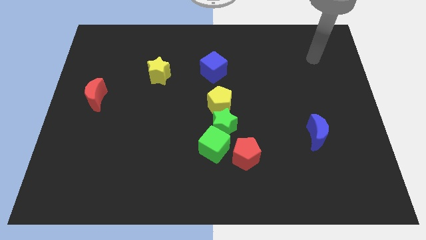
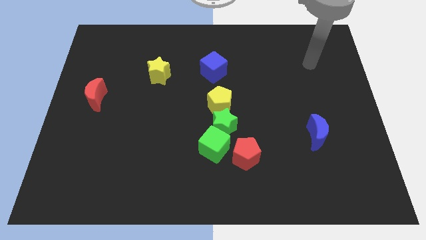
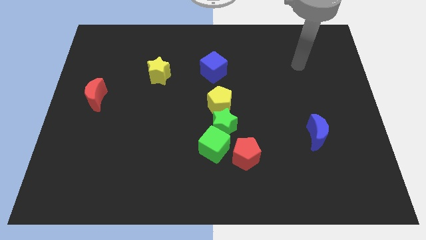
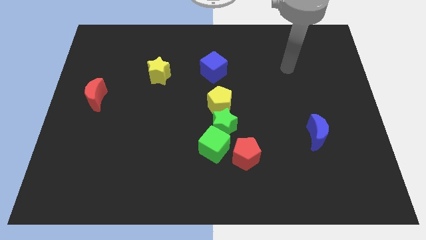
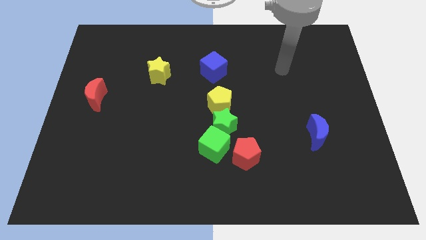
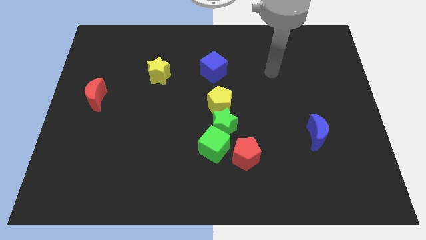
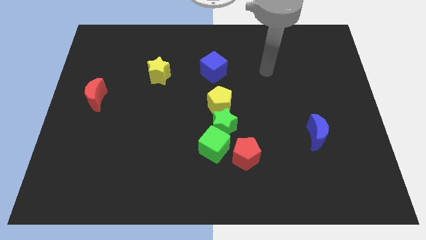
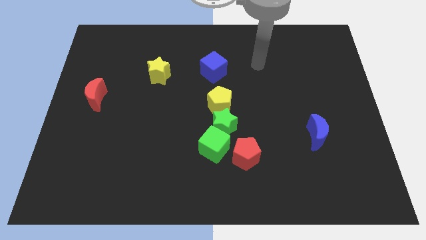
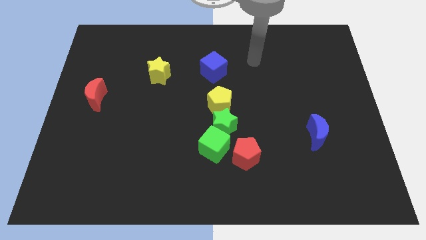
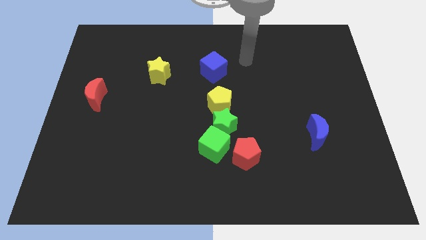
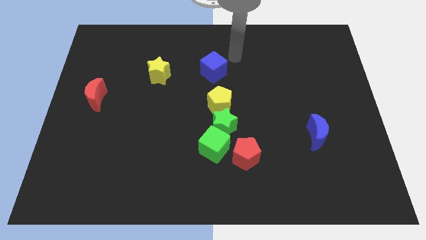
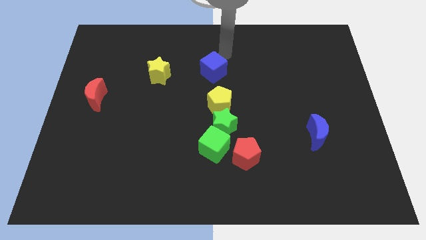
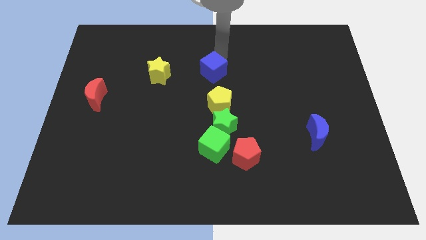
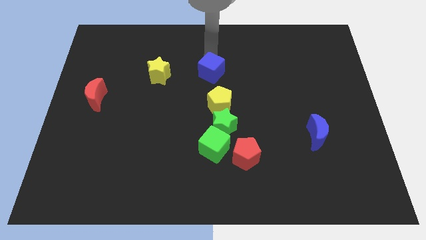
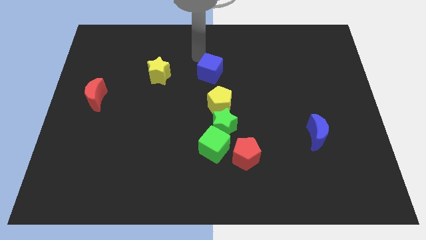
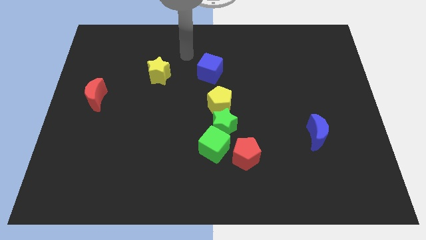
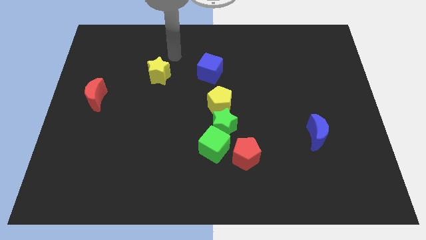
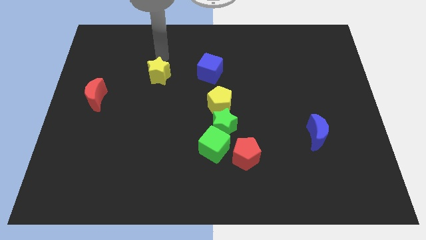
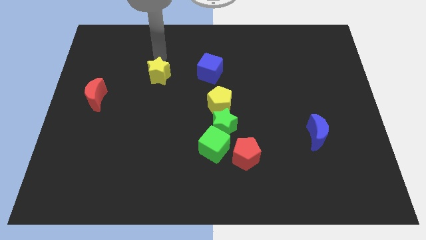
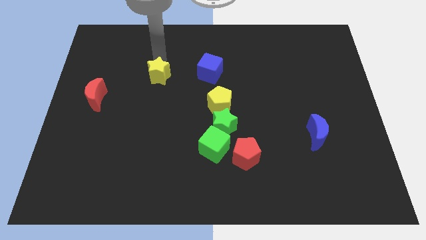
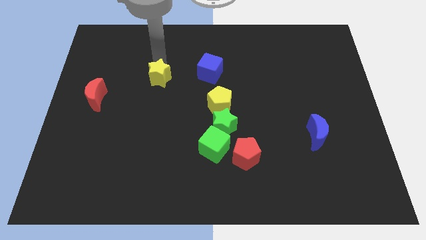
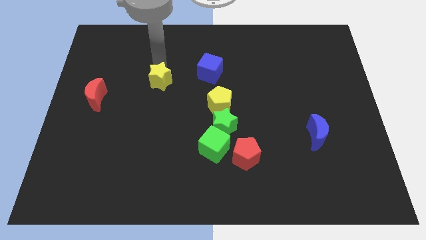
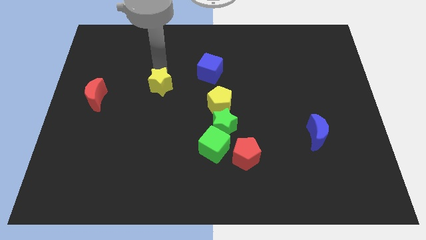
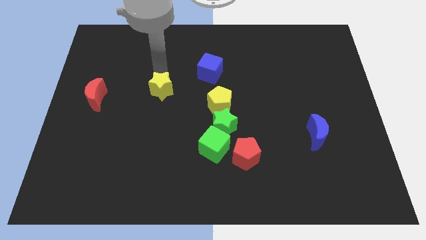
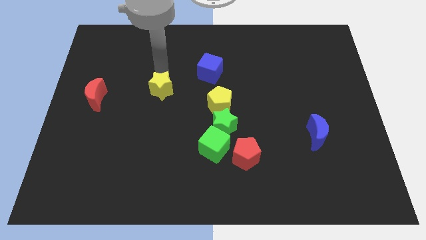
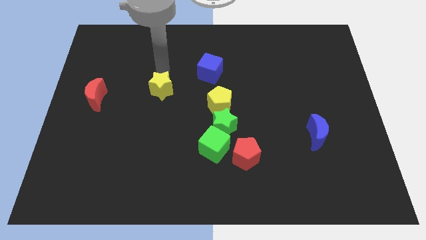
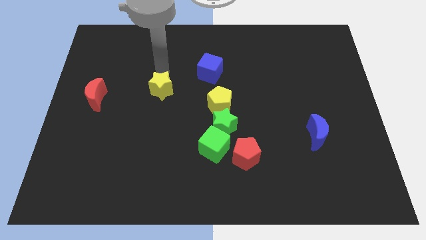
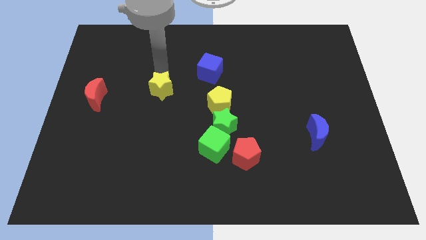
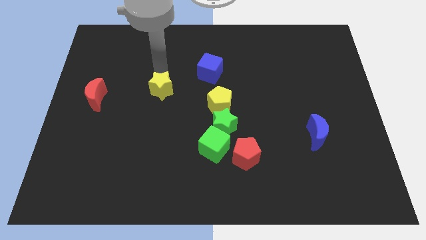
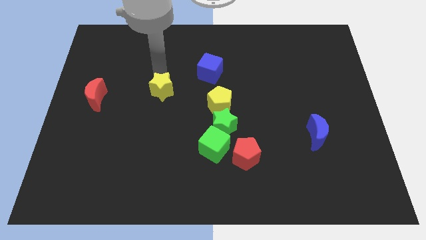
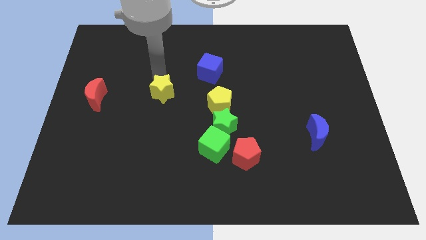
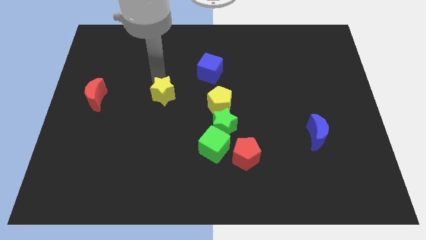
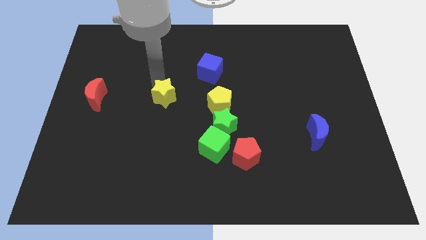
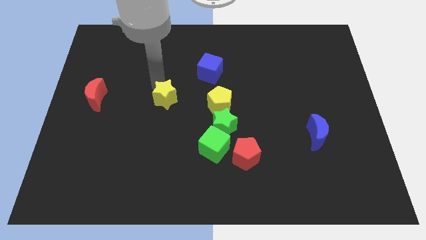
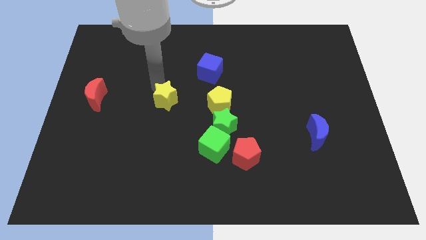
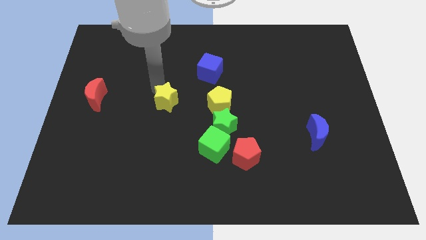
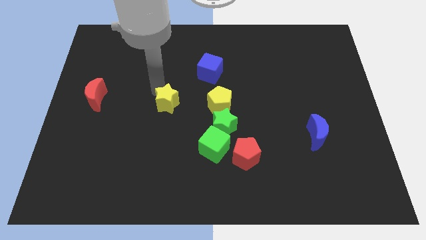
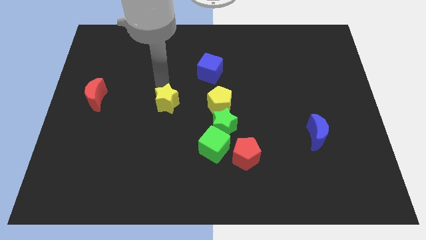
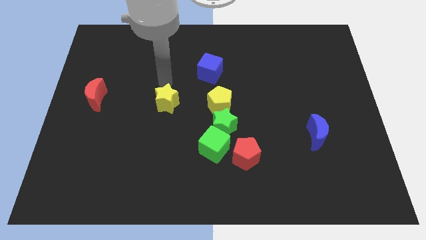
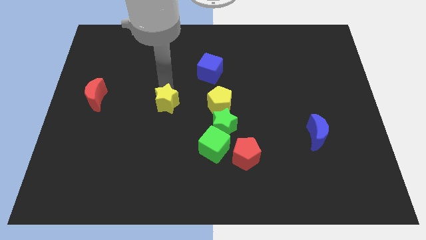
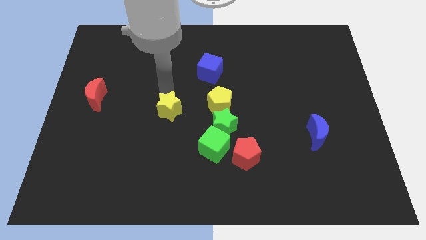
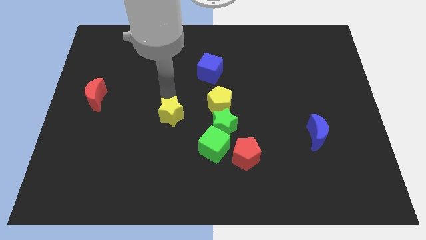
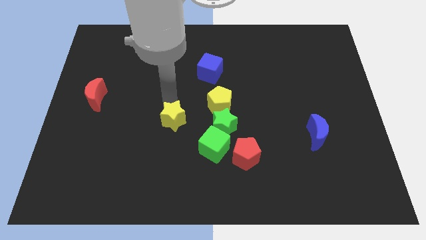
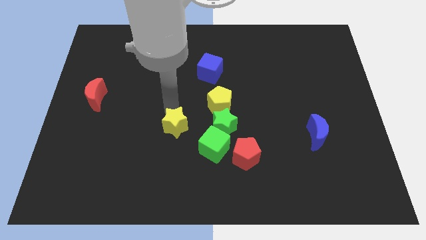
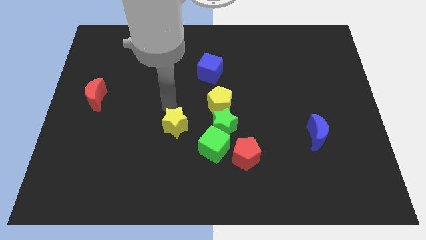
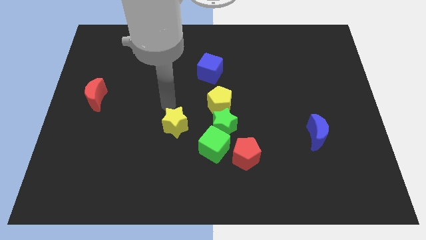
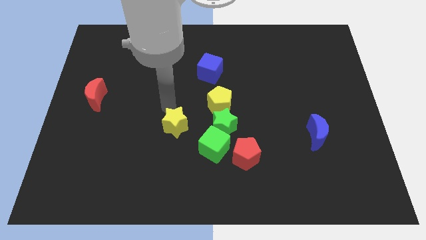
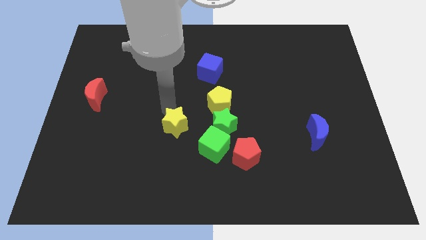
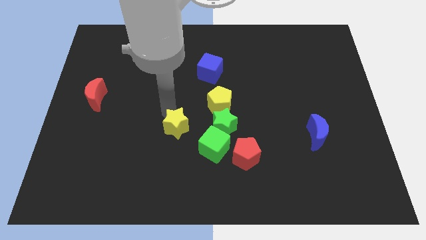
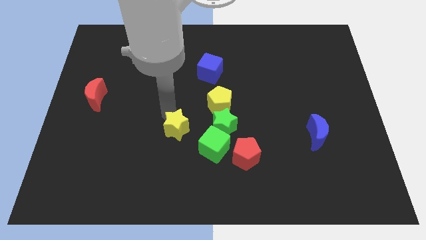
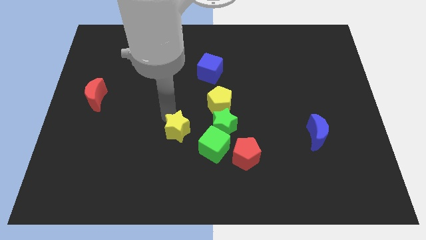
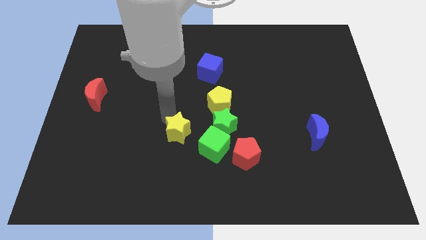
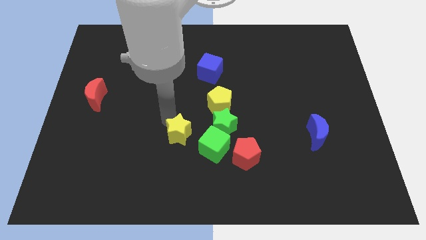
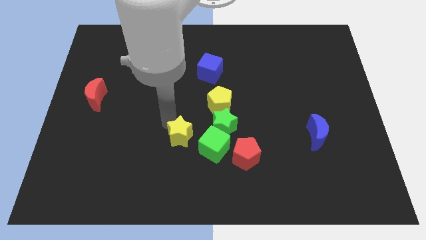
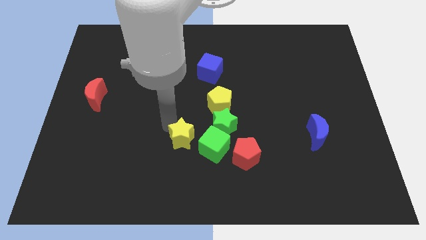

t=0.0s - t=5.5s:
push the yellow star to the bottom left of the green star

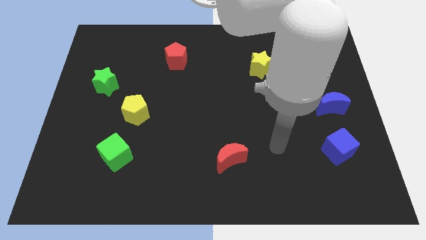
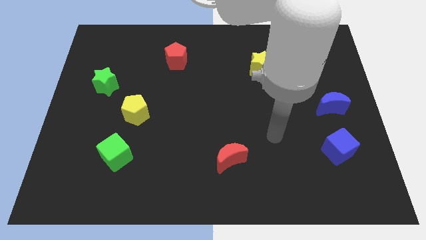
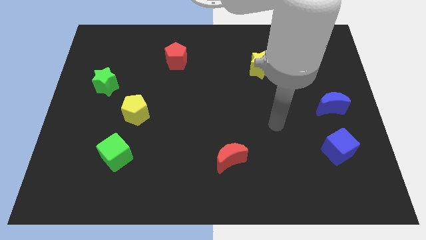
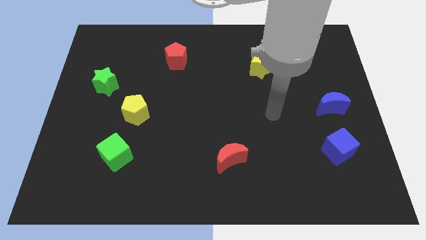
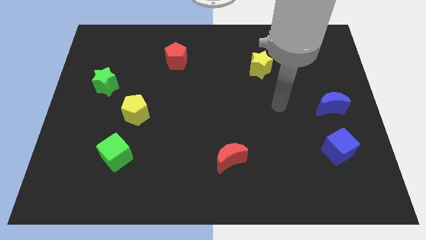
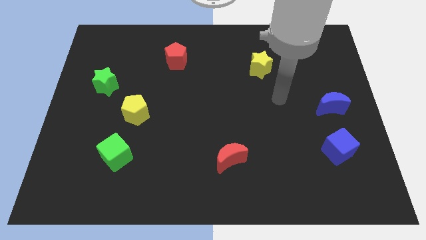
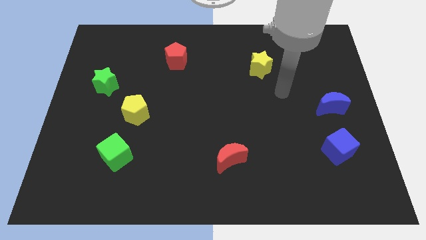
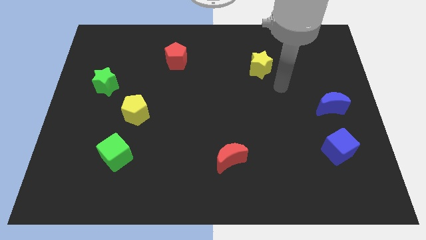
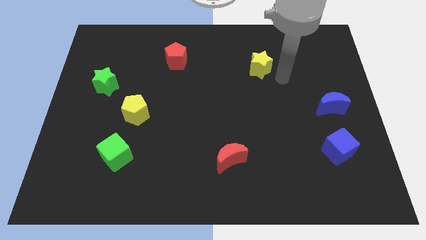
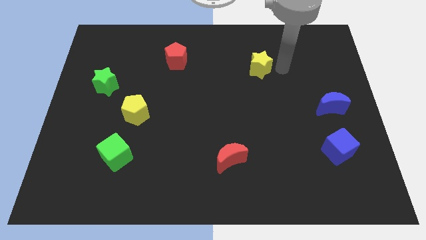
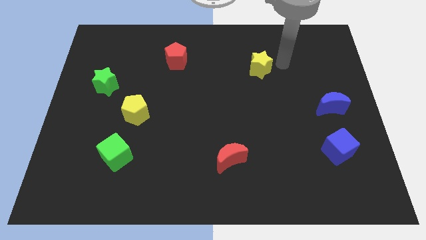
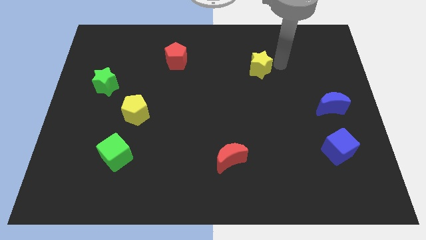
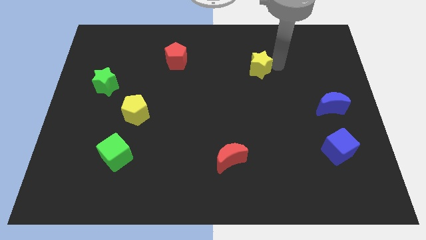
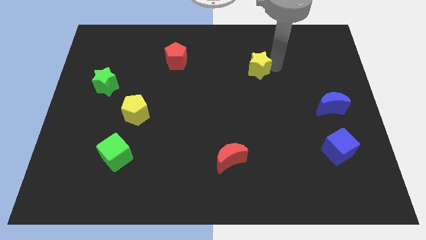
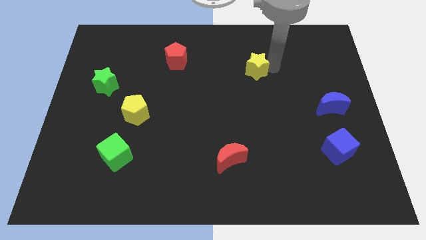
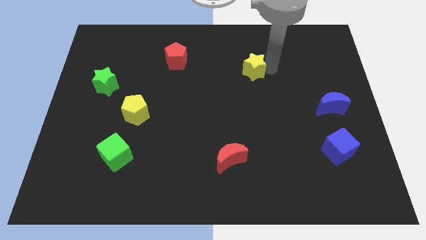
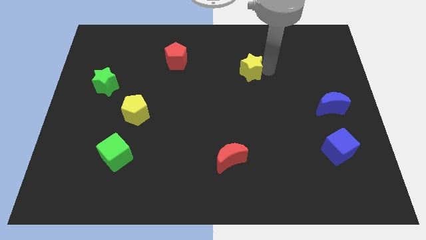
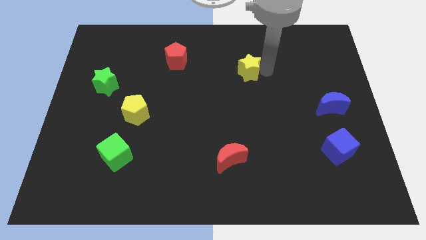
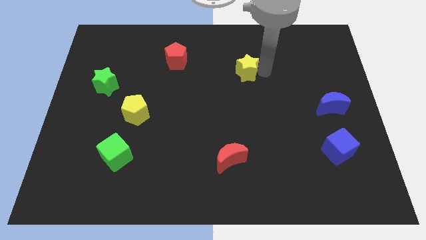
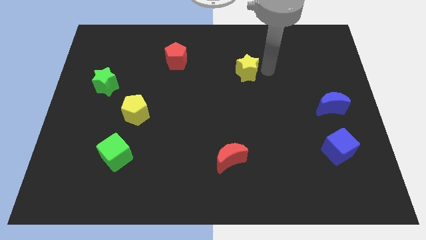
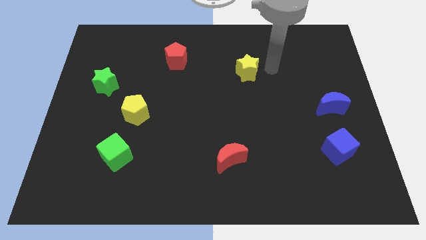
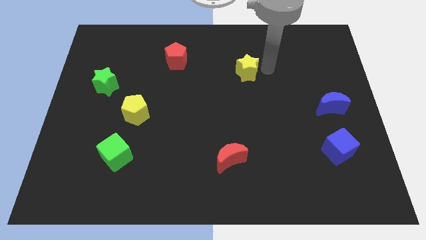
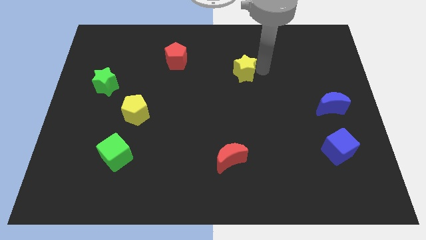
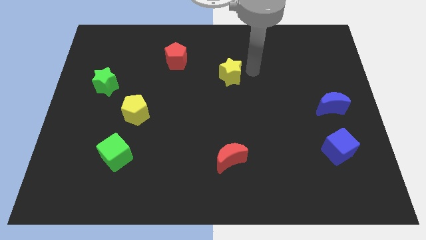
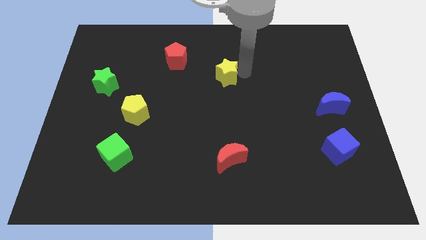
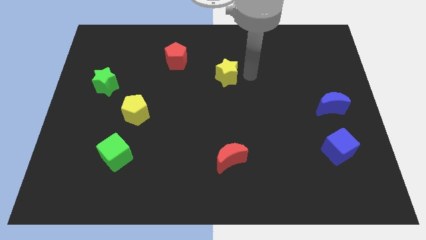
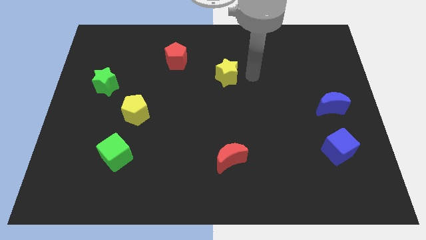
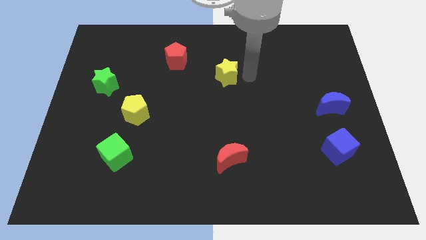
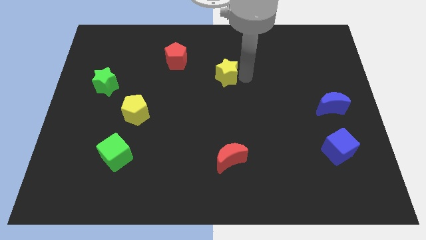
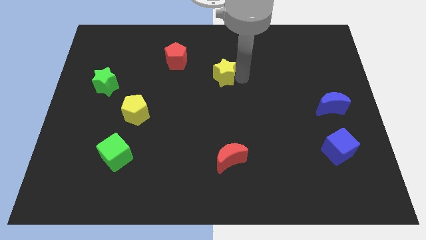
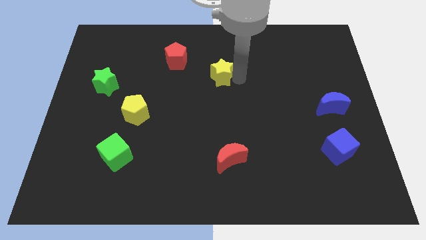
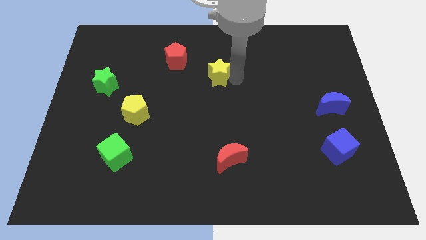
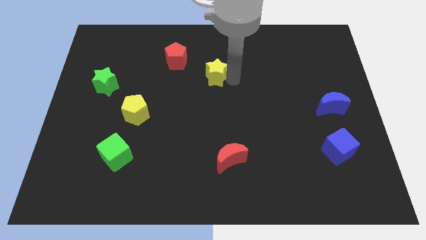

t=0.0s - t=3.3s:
slide the yellow star to the bottom right of the red pentagon
